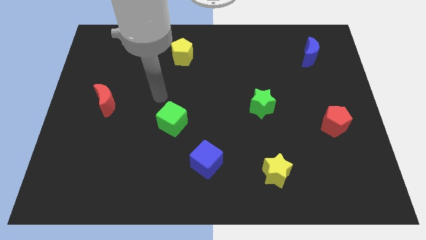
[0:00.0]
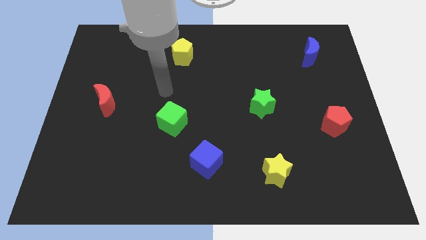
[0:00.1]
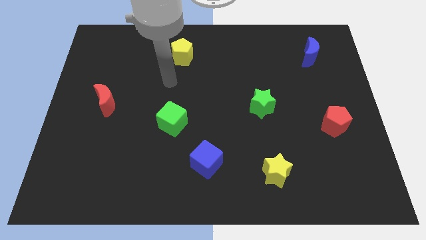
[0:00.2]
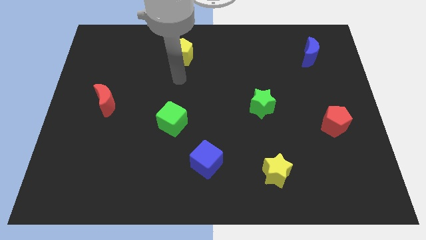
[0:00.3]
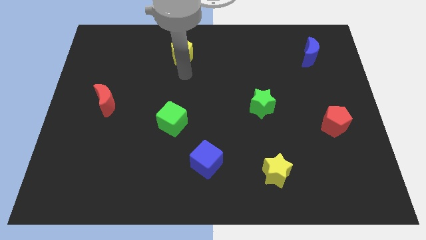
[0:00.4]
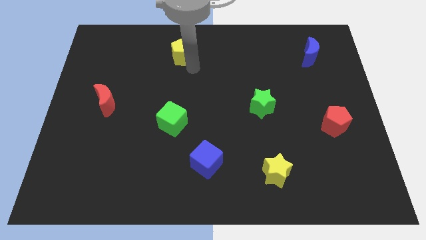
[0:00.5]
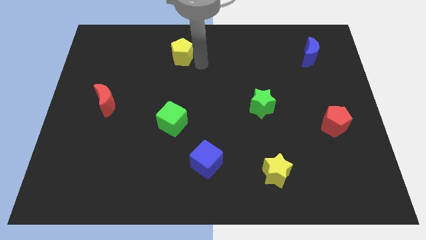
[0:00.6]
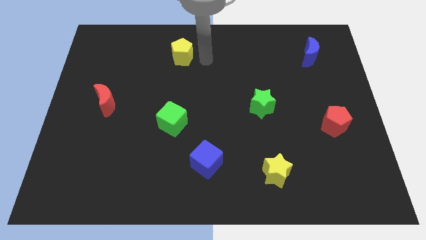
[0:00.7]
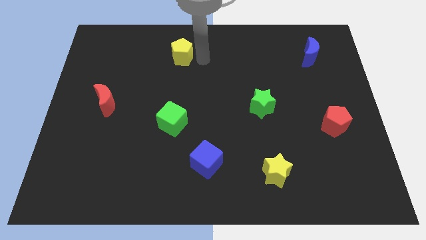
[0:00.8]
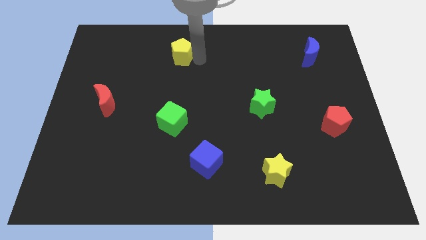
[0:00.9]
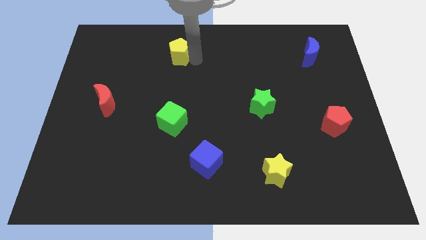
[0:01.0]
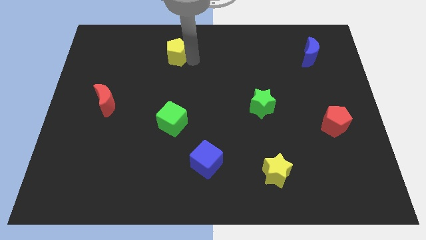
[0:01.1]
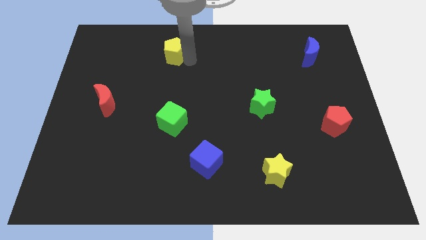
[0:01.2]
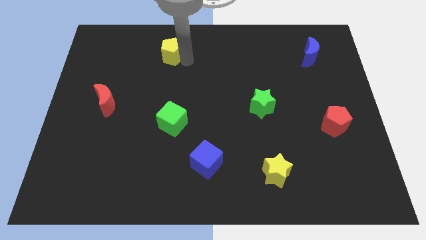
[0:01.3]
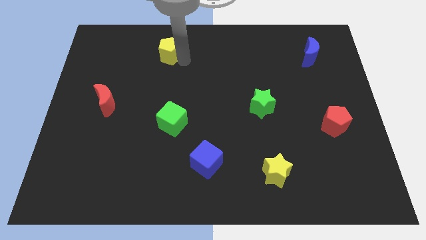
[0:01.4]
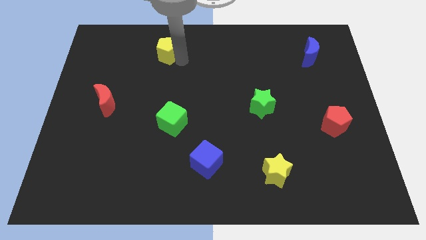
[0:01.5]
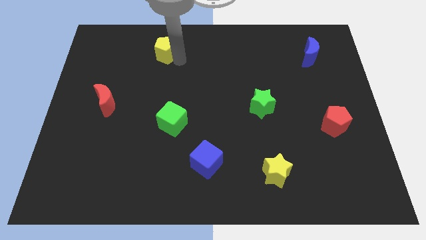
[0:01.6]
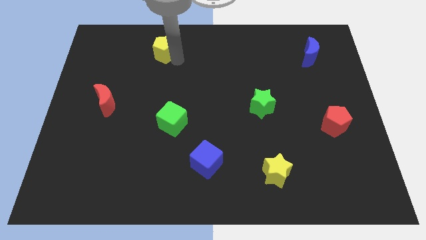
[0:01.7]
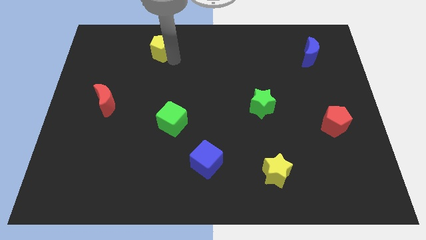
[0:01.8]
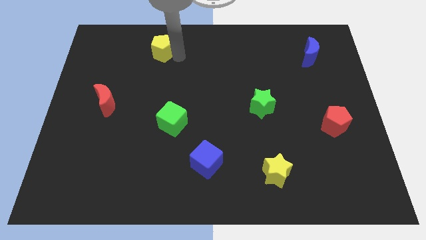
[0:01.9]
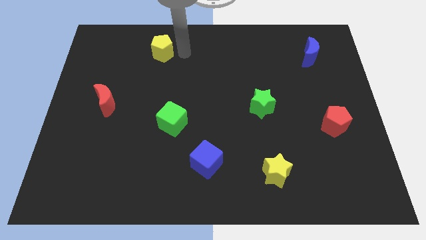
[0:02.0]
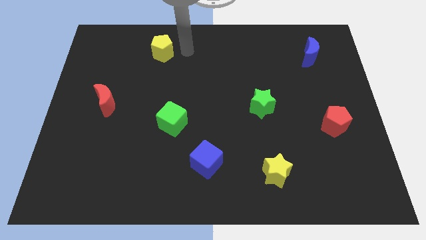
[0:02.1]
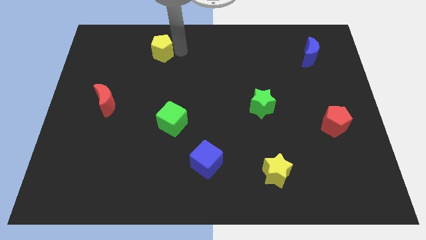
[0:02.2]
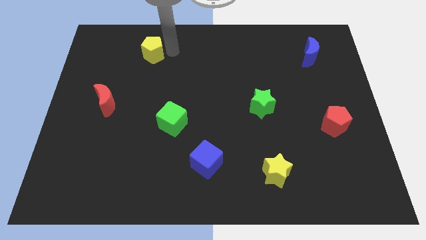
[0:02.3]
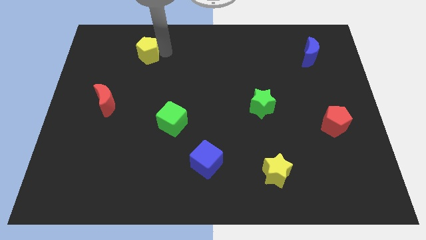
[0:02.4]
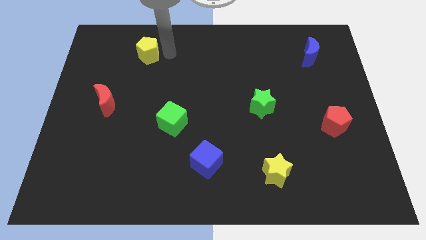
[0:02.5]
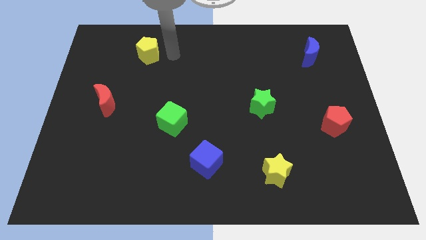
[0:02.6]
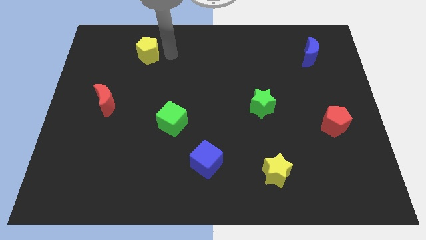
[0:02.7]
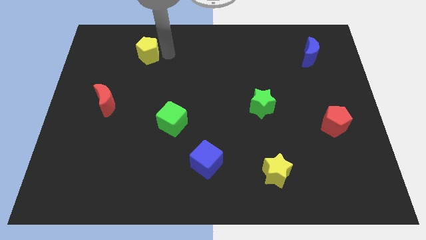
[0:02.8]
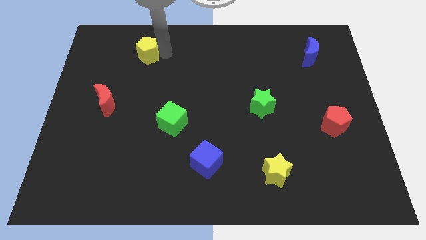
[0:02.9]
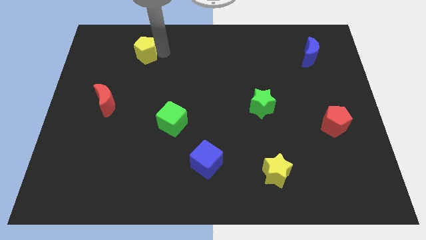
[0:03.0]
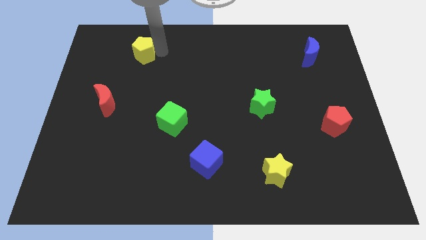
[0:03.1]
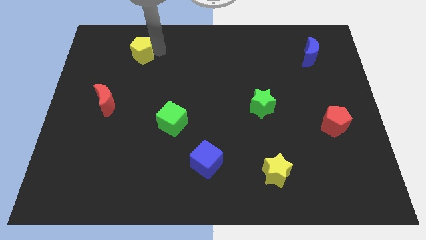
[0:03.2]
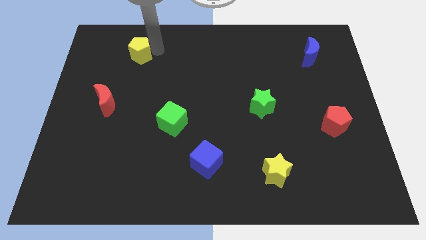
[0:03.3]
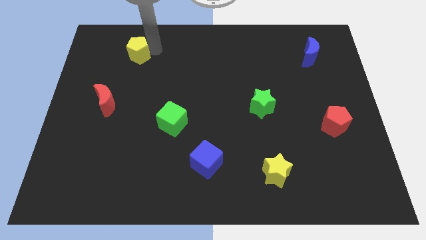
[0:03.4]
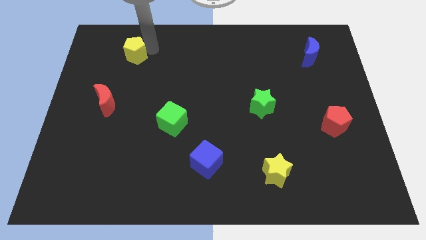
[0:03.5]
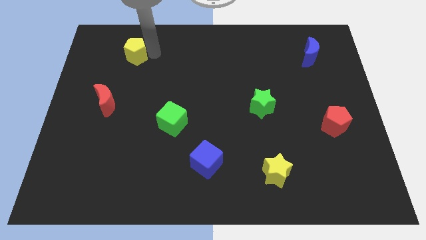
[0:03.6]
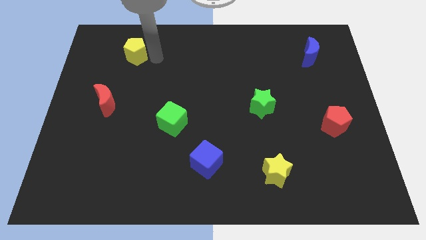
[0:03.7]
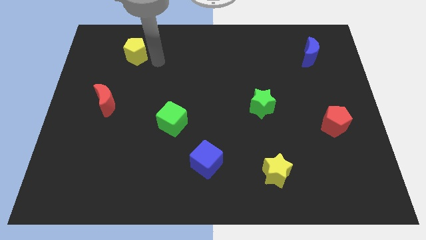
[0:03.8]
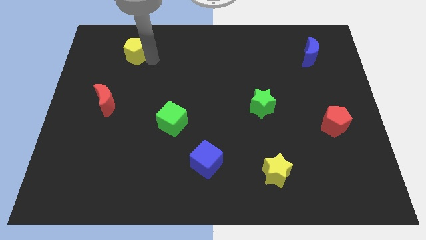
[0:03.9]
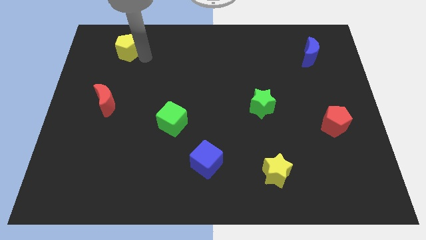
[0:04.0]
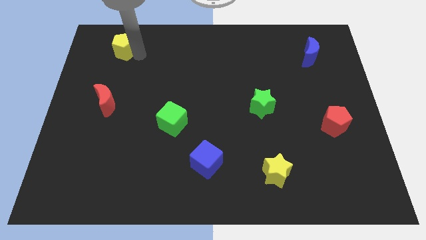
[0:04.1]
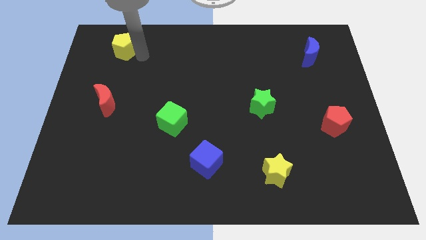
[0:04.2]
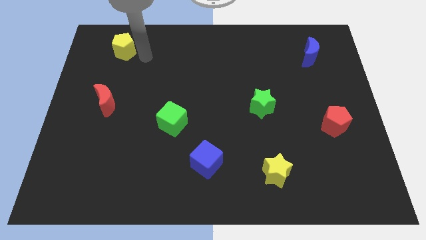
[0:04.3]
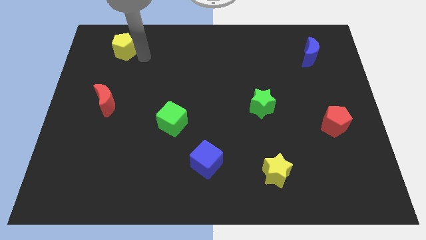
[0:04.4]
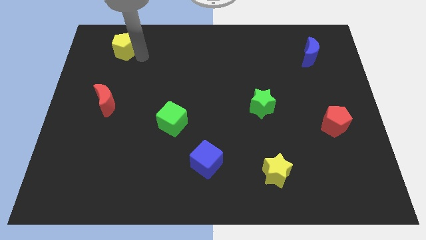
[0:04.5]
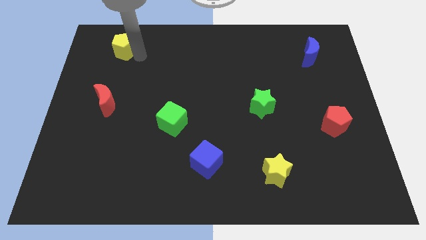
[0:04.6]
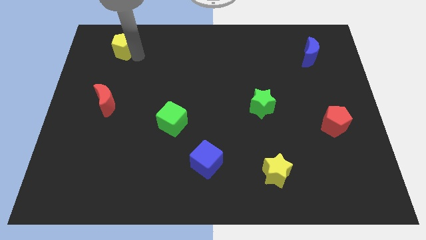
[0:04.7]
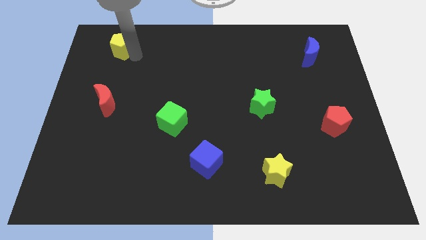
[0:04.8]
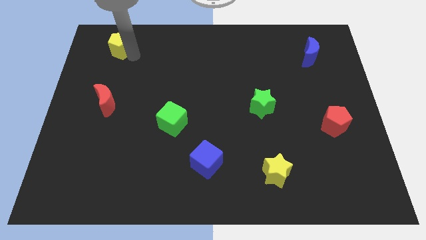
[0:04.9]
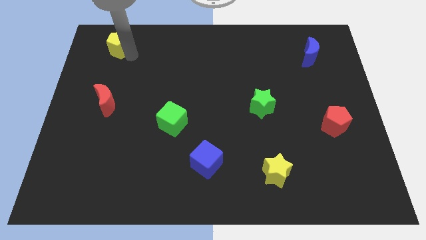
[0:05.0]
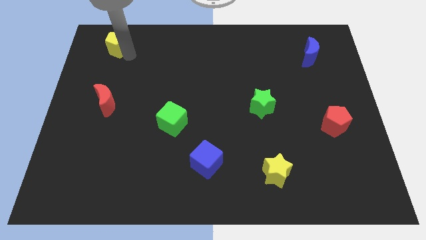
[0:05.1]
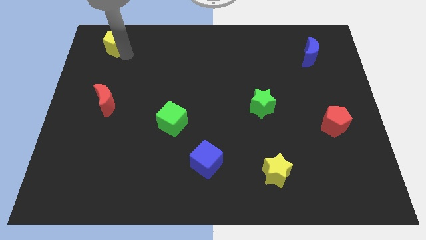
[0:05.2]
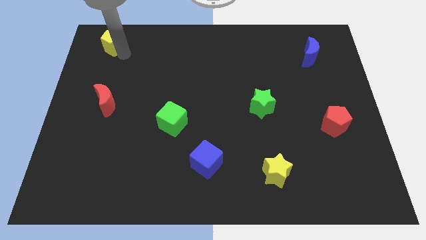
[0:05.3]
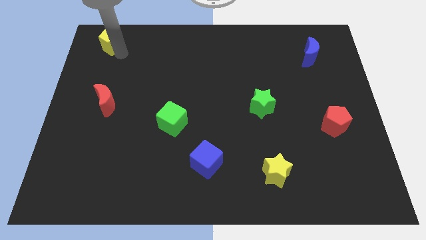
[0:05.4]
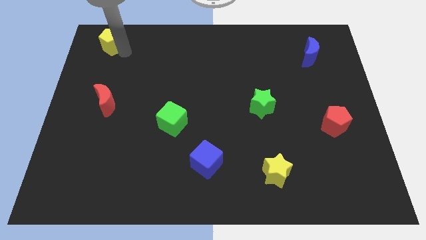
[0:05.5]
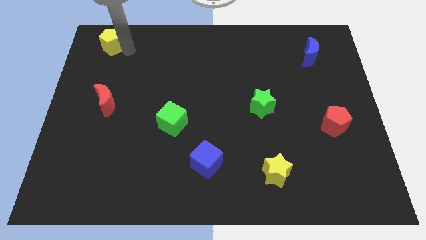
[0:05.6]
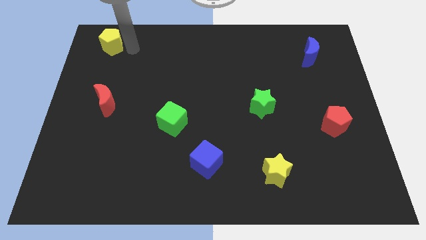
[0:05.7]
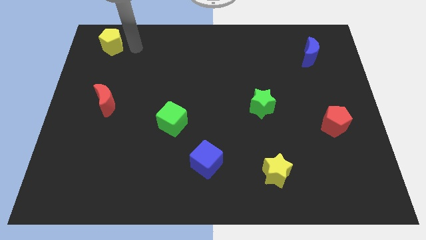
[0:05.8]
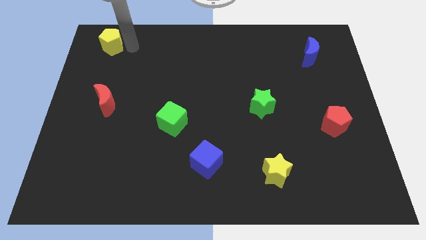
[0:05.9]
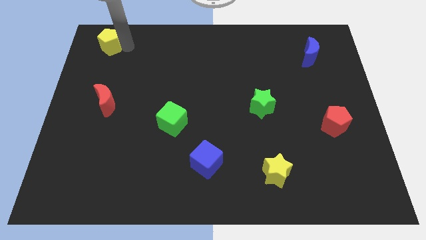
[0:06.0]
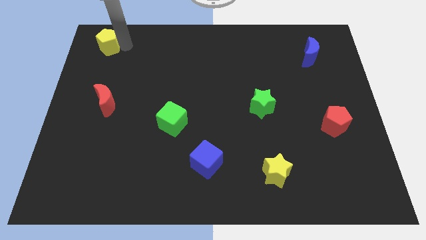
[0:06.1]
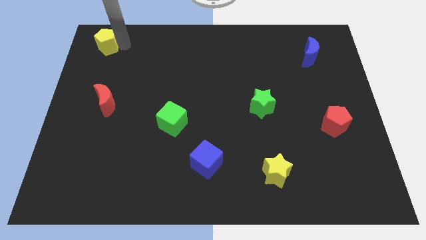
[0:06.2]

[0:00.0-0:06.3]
put the yellow pentagon to the top left

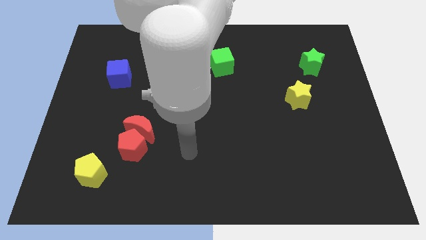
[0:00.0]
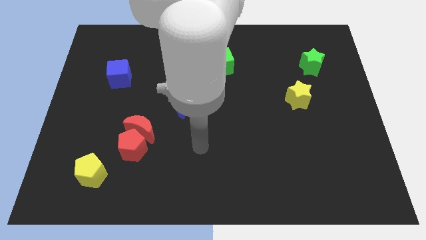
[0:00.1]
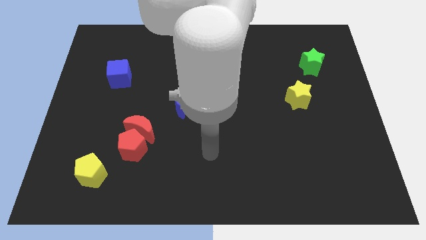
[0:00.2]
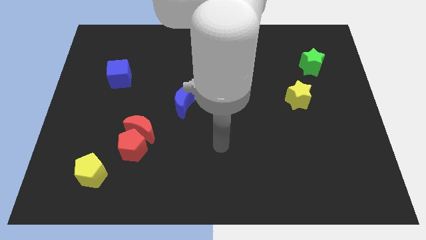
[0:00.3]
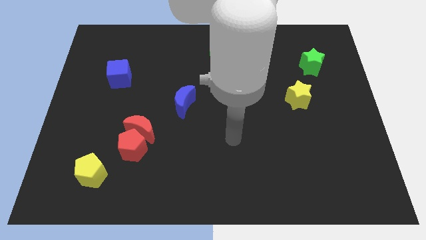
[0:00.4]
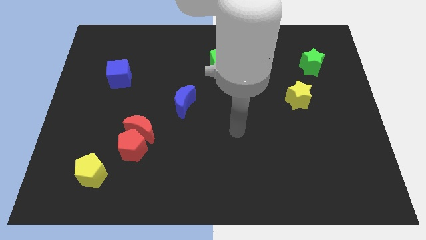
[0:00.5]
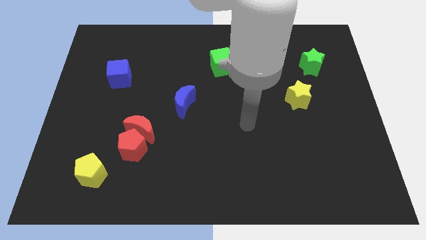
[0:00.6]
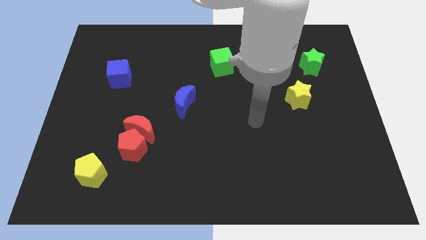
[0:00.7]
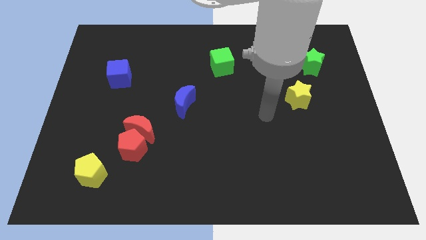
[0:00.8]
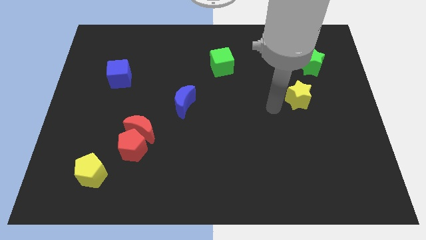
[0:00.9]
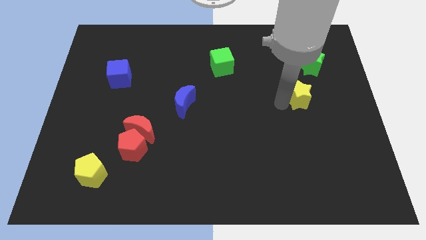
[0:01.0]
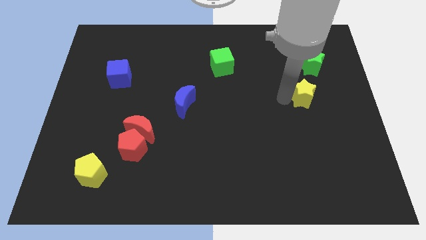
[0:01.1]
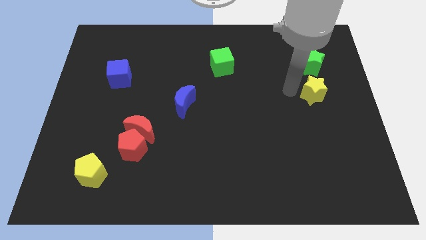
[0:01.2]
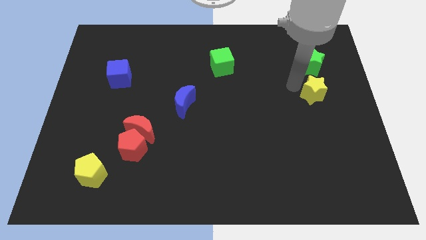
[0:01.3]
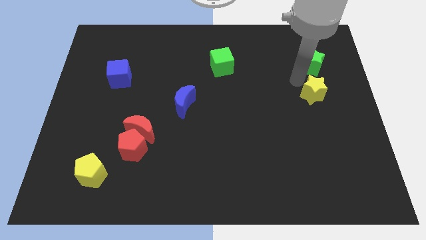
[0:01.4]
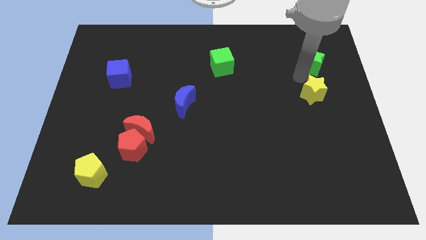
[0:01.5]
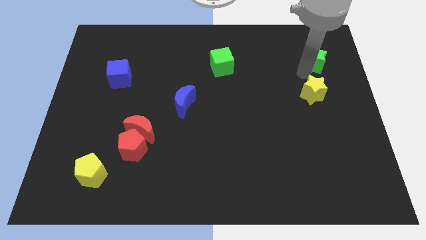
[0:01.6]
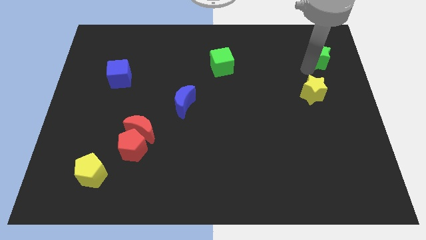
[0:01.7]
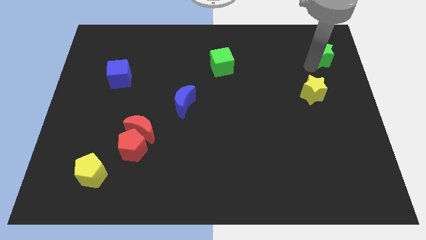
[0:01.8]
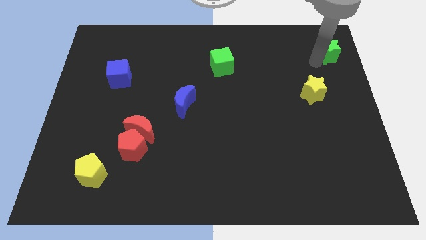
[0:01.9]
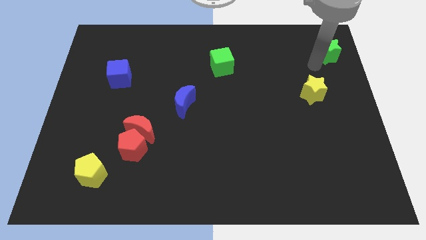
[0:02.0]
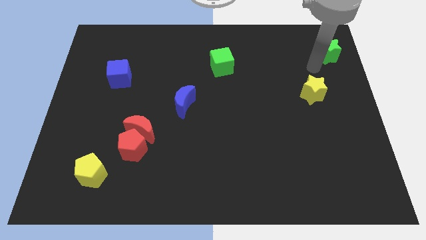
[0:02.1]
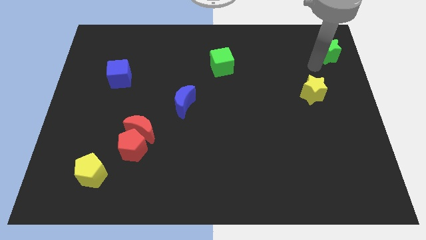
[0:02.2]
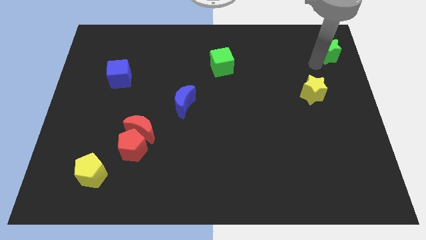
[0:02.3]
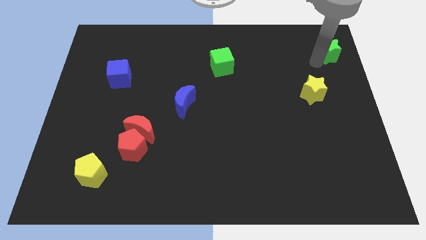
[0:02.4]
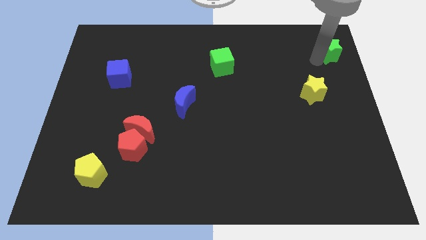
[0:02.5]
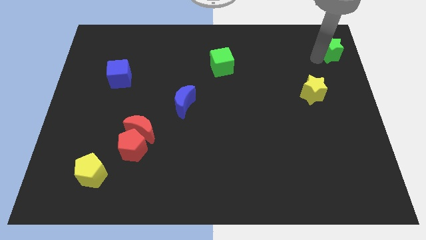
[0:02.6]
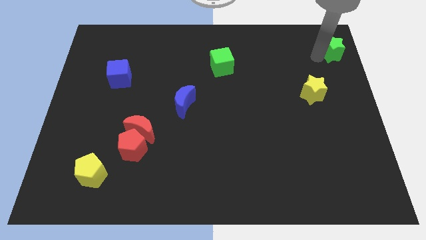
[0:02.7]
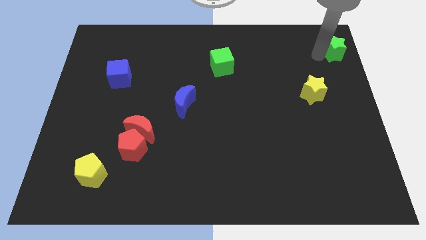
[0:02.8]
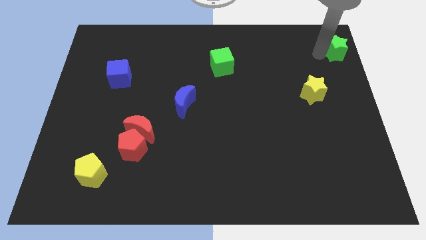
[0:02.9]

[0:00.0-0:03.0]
slide the green star to the top right corner
